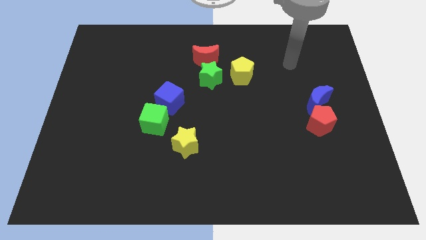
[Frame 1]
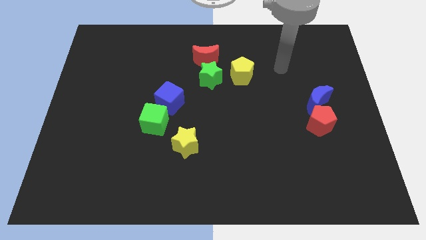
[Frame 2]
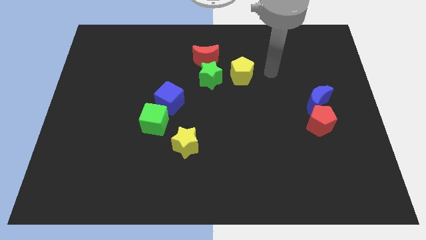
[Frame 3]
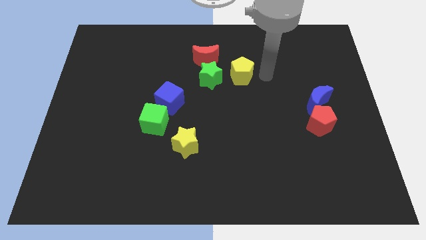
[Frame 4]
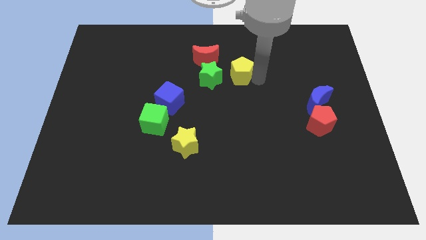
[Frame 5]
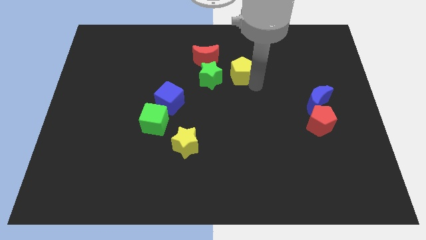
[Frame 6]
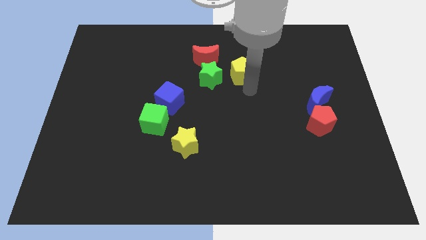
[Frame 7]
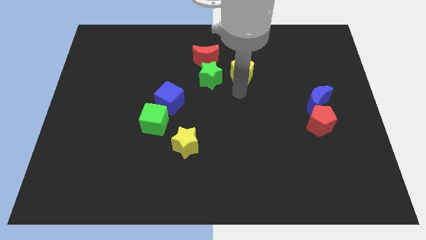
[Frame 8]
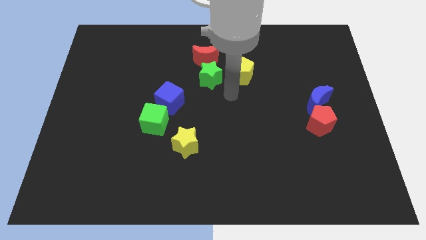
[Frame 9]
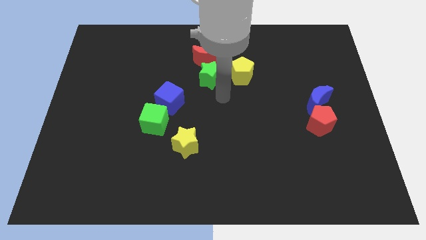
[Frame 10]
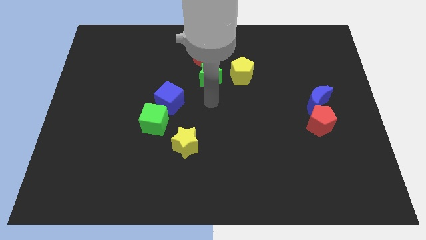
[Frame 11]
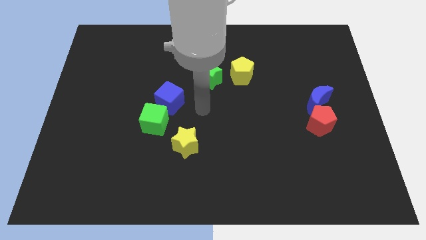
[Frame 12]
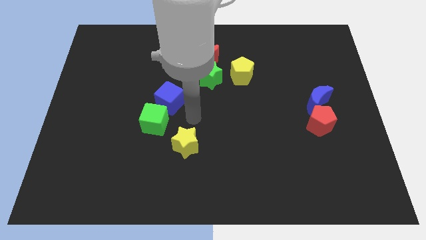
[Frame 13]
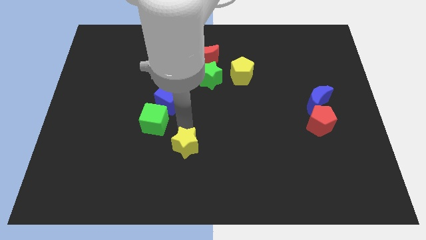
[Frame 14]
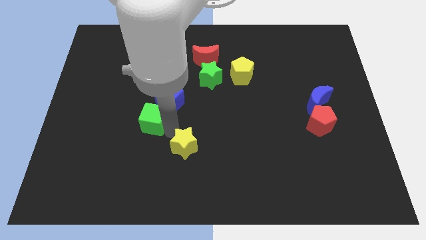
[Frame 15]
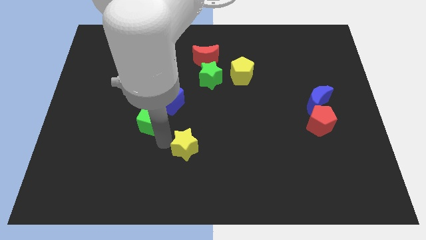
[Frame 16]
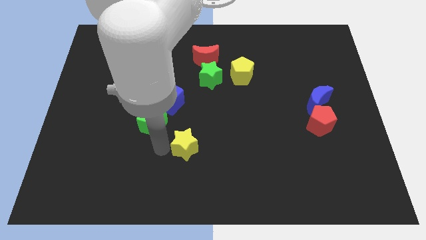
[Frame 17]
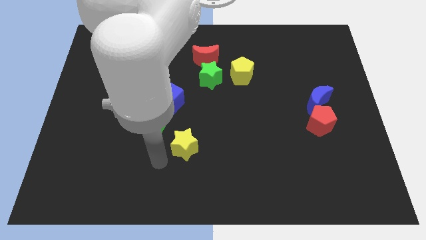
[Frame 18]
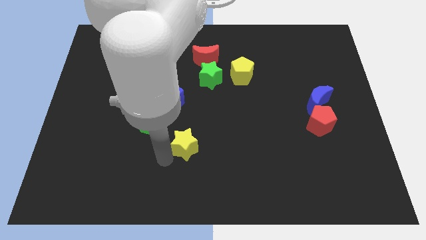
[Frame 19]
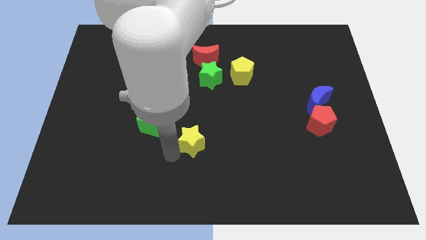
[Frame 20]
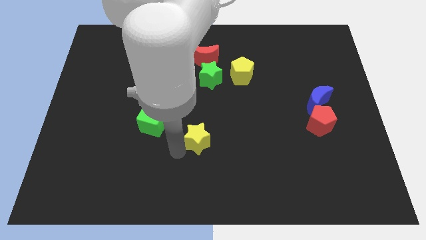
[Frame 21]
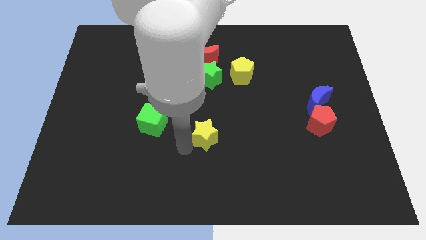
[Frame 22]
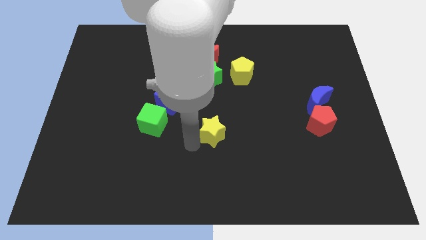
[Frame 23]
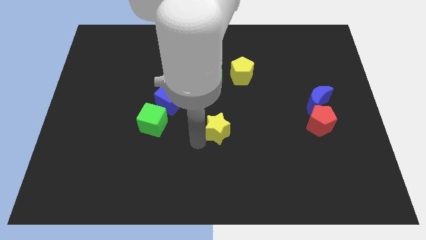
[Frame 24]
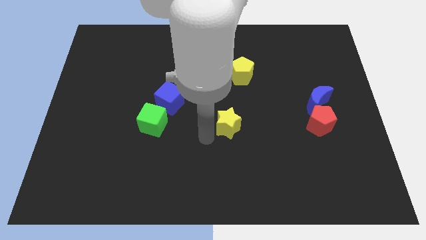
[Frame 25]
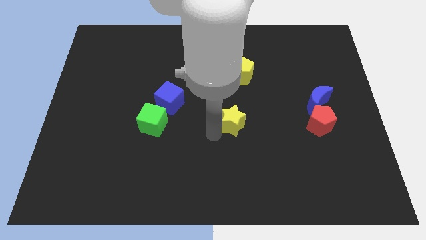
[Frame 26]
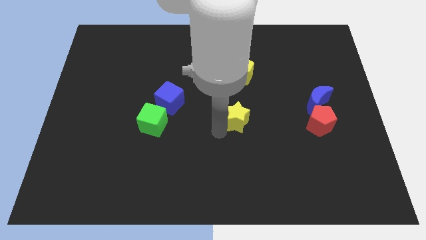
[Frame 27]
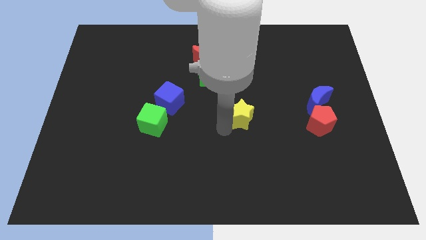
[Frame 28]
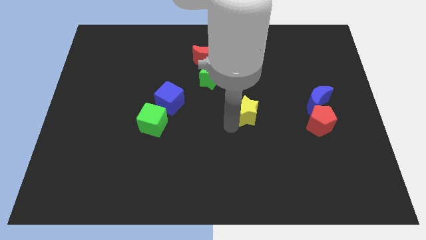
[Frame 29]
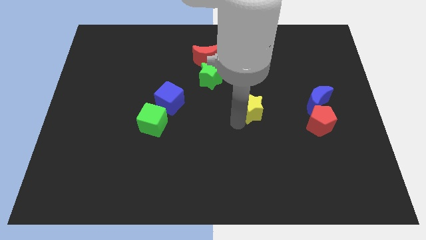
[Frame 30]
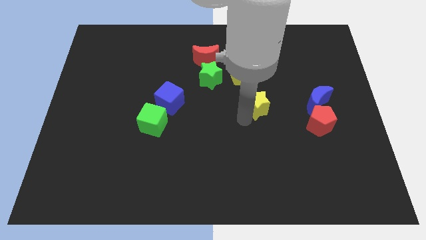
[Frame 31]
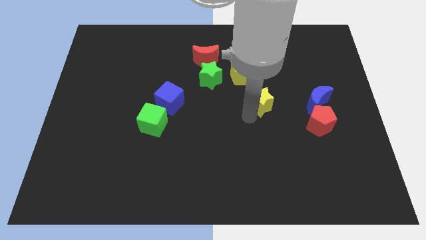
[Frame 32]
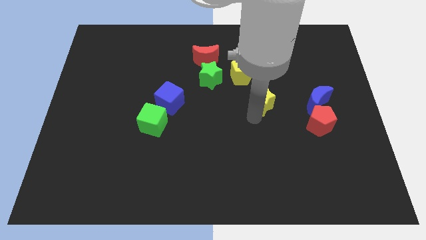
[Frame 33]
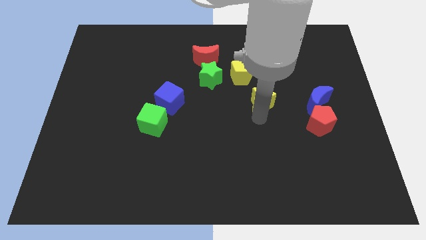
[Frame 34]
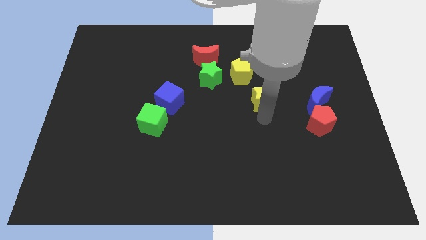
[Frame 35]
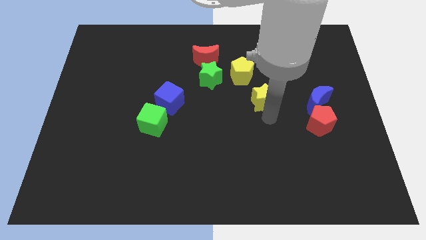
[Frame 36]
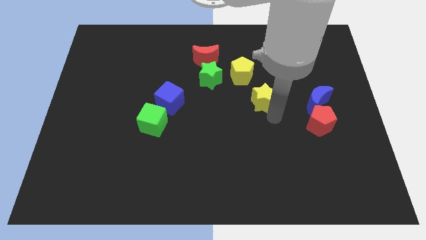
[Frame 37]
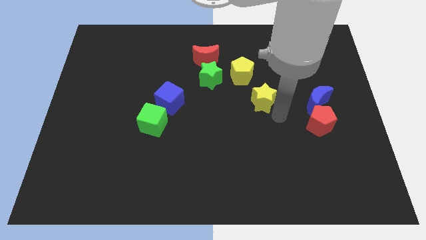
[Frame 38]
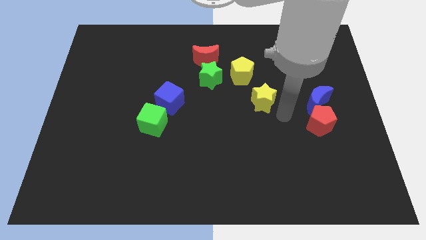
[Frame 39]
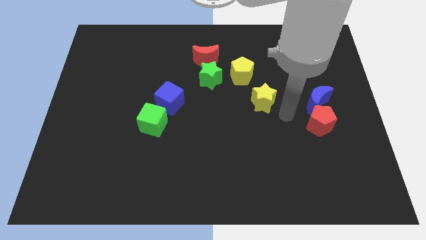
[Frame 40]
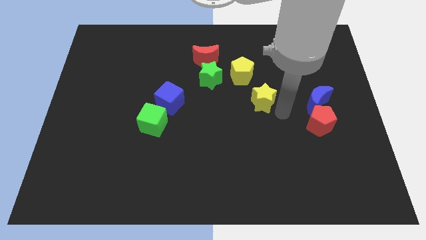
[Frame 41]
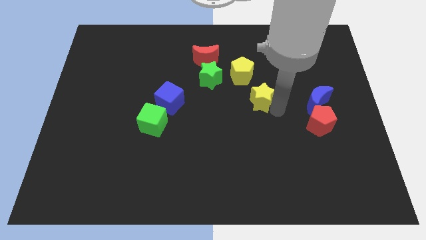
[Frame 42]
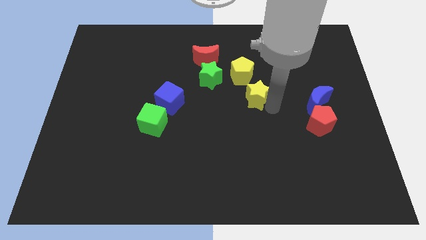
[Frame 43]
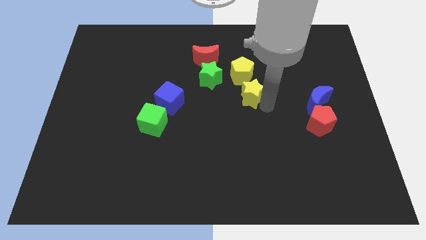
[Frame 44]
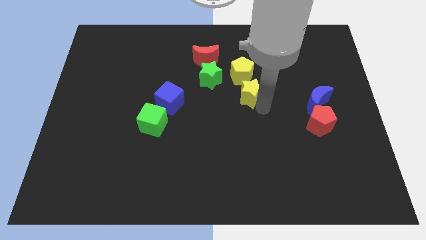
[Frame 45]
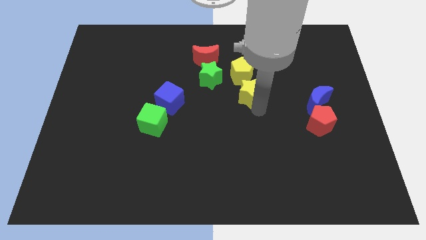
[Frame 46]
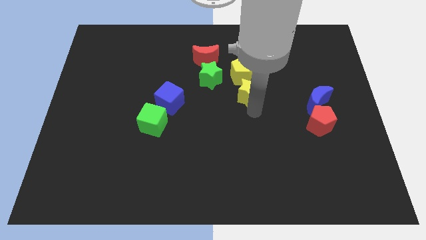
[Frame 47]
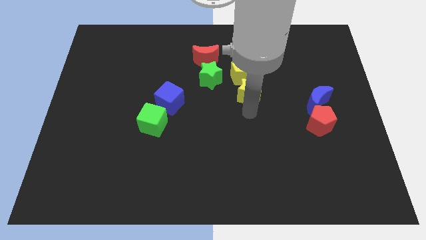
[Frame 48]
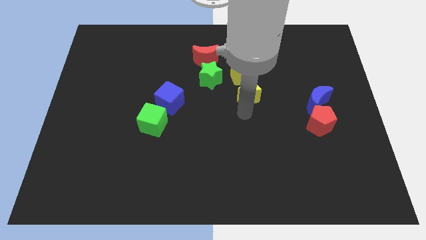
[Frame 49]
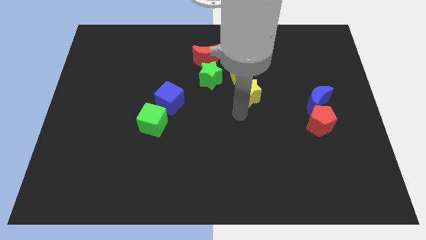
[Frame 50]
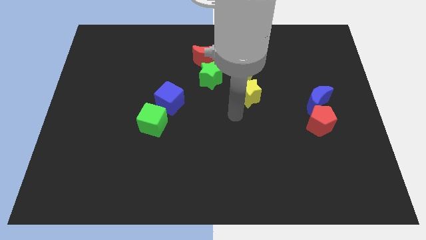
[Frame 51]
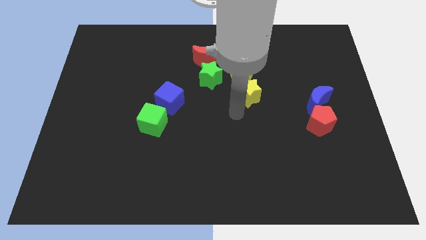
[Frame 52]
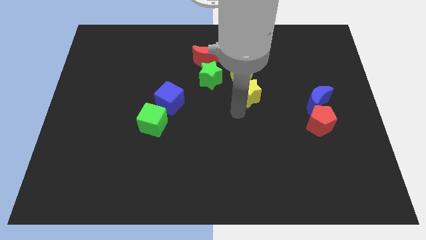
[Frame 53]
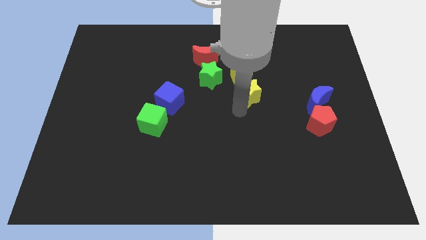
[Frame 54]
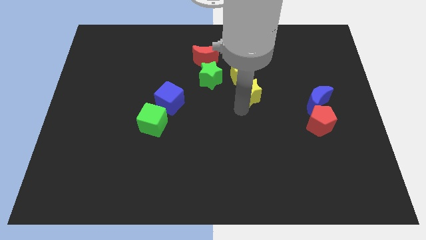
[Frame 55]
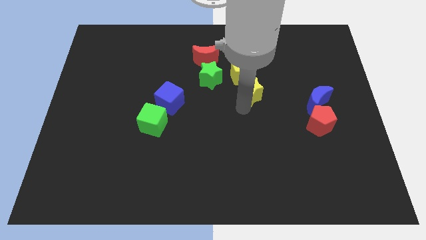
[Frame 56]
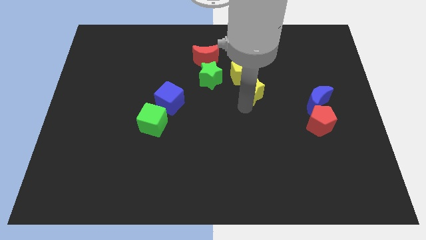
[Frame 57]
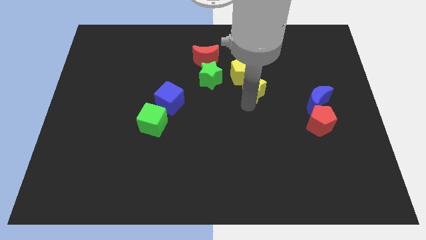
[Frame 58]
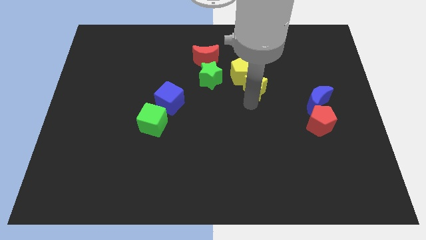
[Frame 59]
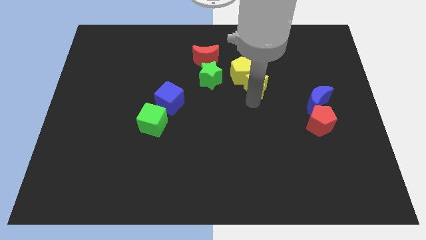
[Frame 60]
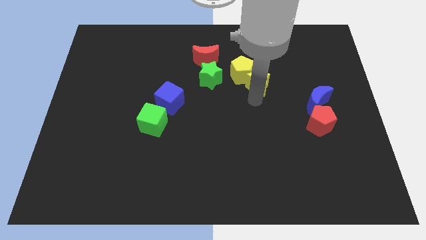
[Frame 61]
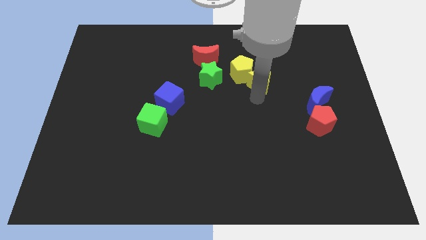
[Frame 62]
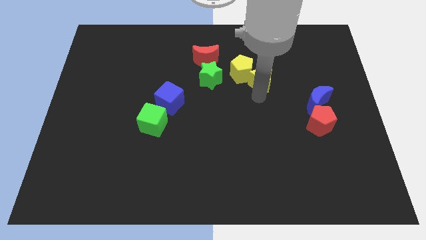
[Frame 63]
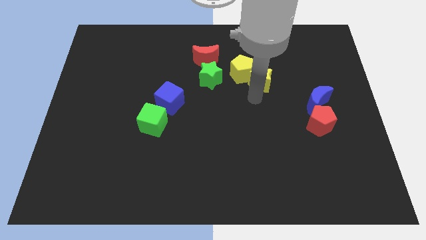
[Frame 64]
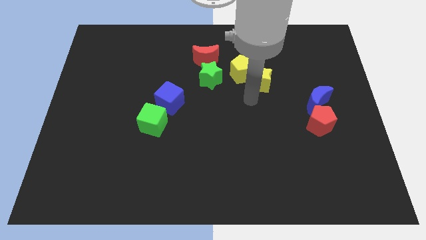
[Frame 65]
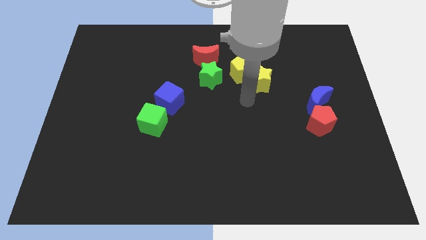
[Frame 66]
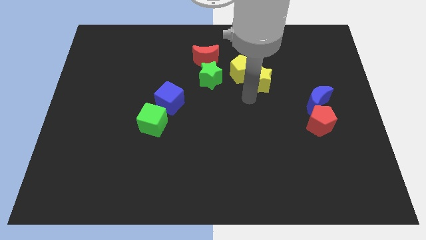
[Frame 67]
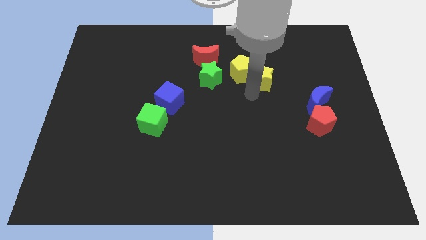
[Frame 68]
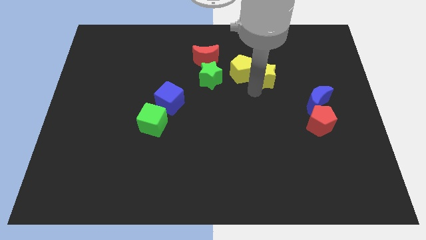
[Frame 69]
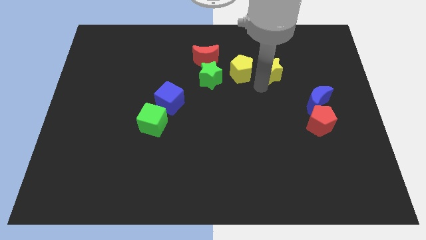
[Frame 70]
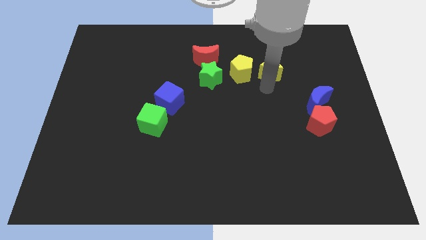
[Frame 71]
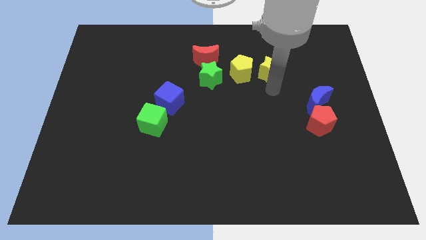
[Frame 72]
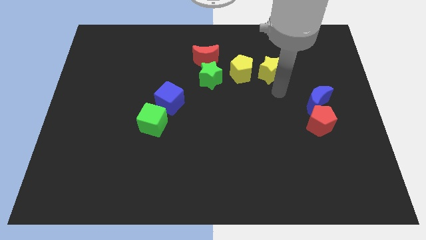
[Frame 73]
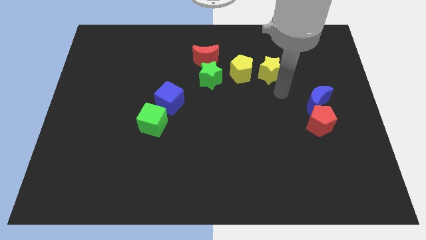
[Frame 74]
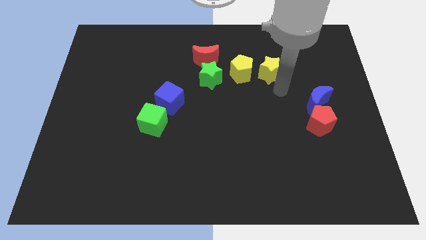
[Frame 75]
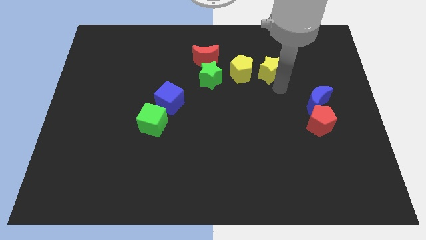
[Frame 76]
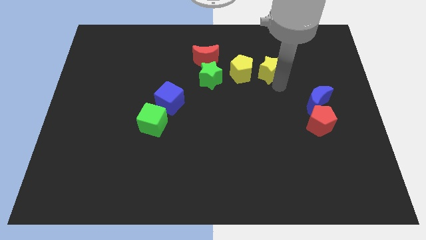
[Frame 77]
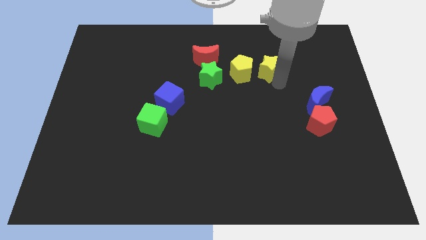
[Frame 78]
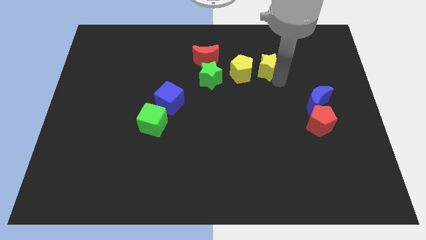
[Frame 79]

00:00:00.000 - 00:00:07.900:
put the yellow star diagonally up and to the right of the yellow pentagon

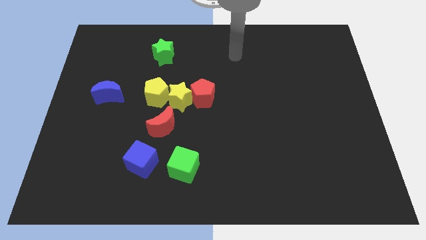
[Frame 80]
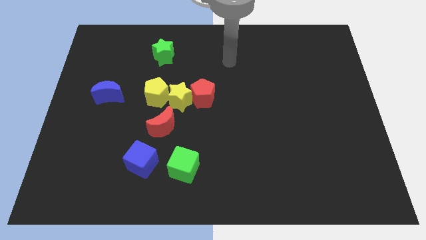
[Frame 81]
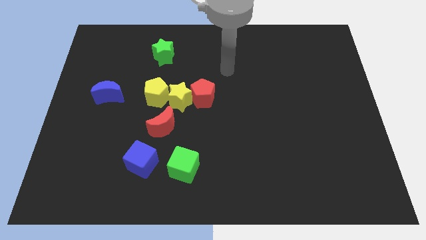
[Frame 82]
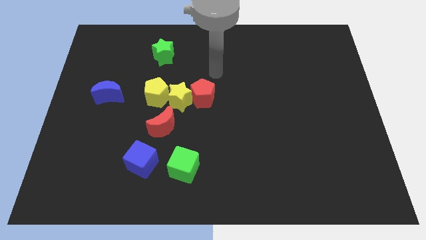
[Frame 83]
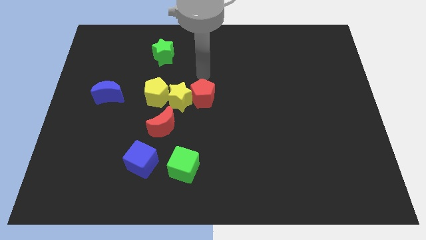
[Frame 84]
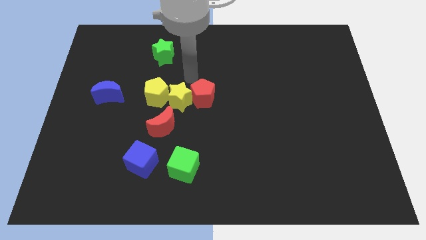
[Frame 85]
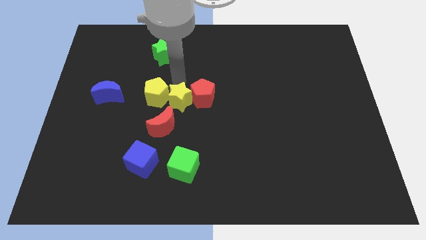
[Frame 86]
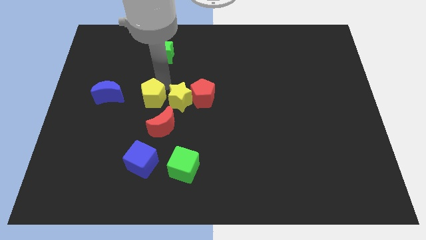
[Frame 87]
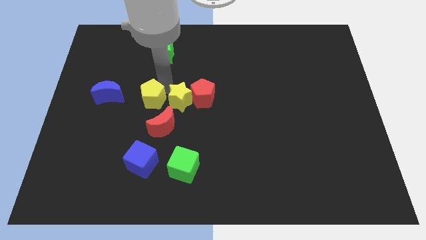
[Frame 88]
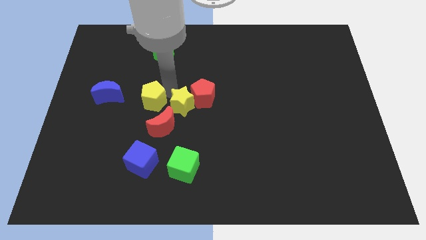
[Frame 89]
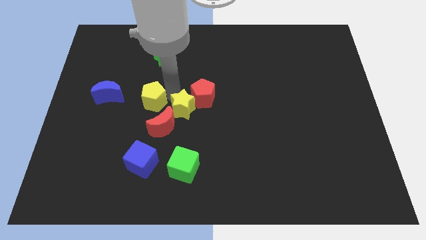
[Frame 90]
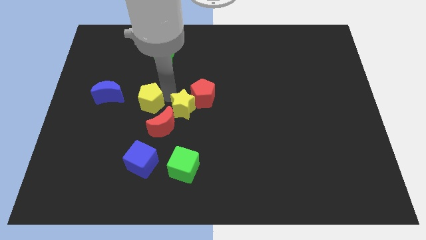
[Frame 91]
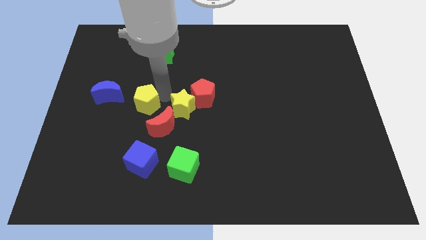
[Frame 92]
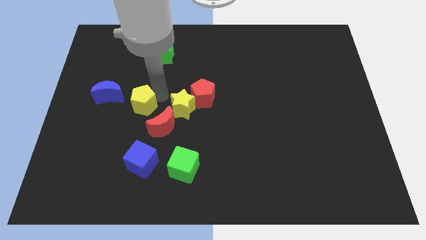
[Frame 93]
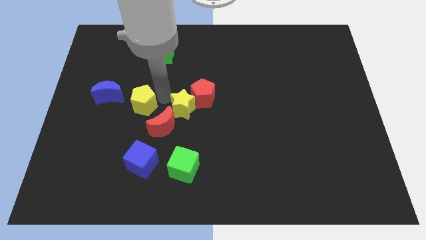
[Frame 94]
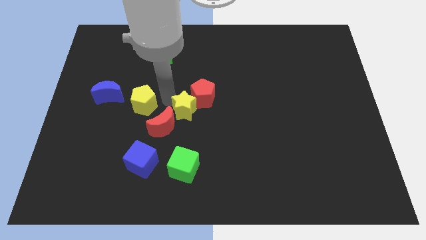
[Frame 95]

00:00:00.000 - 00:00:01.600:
move the yellow star right of the red moon
